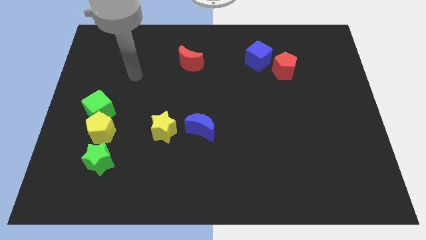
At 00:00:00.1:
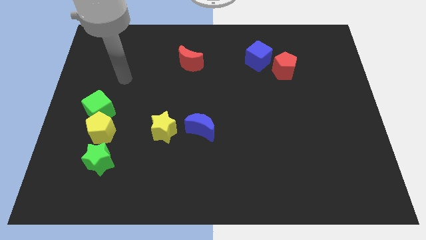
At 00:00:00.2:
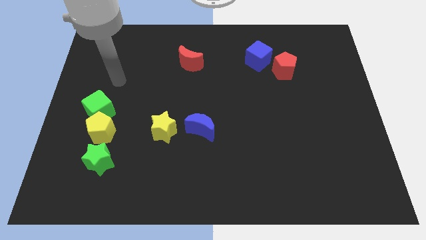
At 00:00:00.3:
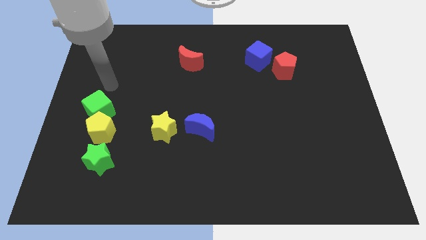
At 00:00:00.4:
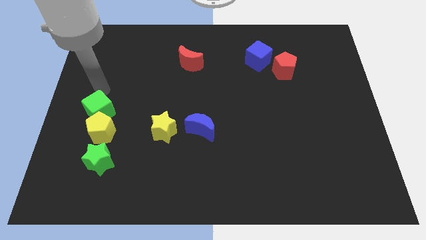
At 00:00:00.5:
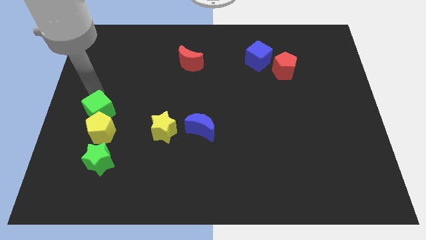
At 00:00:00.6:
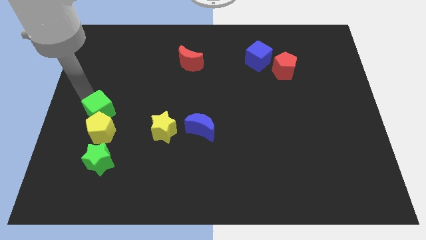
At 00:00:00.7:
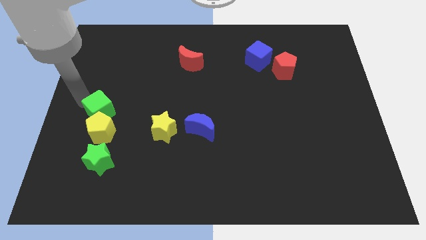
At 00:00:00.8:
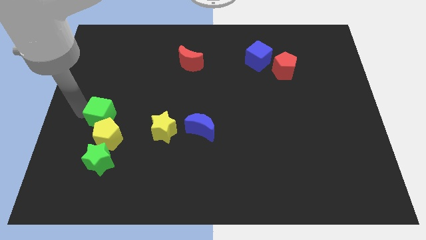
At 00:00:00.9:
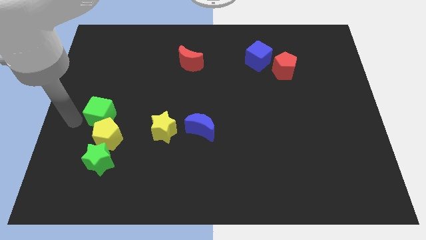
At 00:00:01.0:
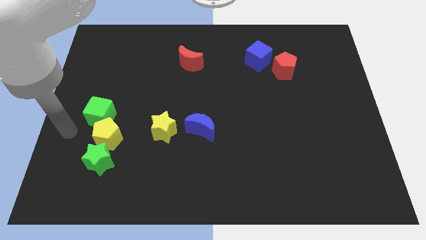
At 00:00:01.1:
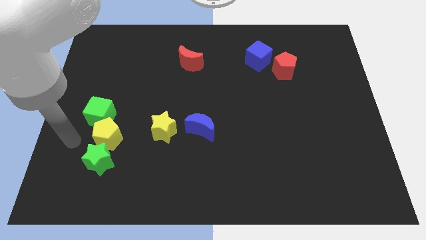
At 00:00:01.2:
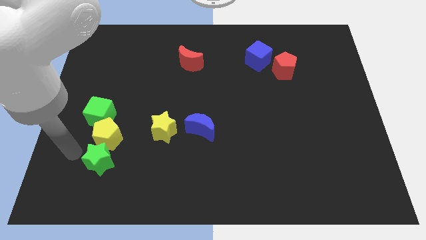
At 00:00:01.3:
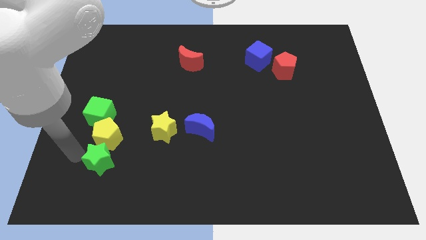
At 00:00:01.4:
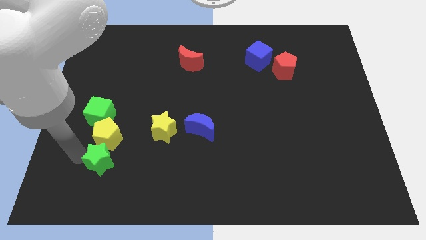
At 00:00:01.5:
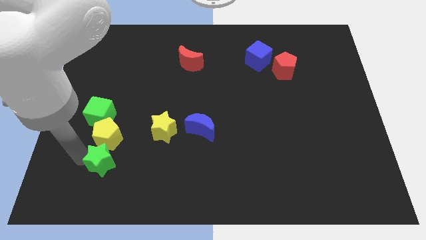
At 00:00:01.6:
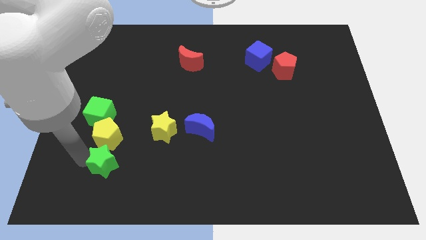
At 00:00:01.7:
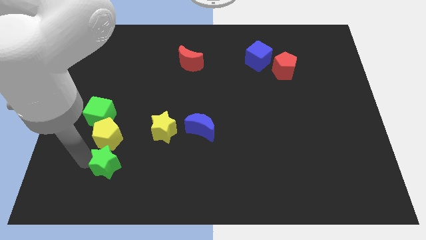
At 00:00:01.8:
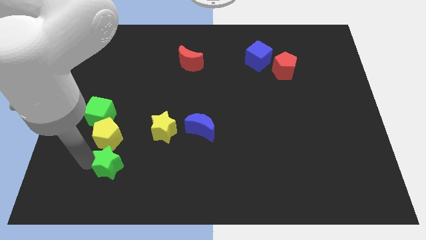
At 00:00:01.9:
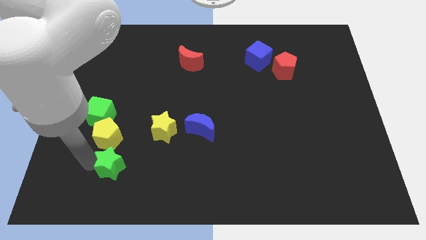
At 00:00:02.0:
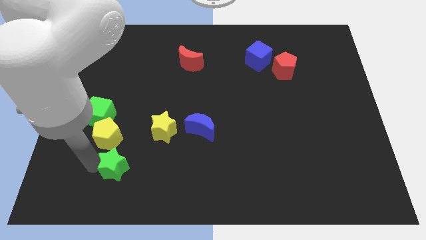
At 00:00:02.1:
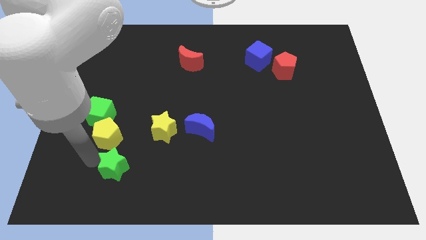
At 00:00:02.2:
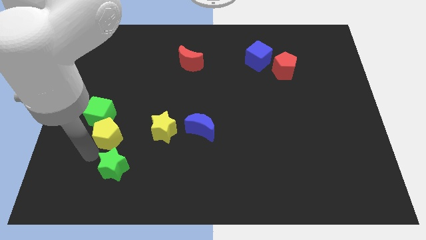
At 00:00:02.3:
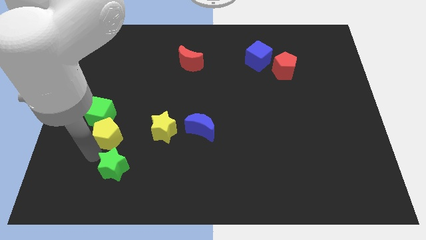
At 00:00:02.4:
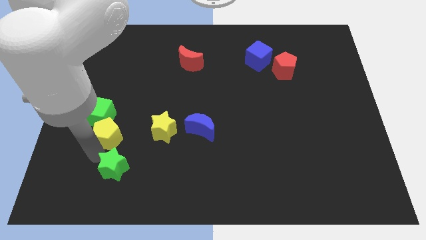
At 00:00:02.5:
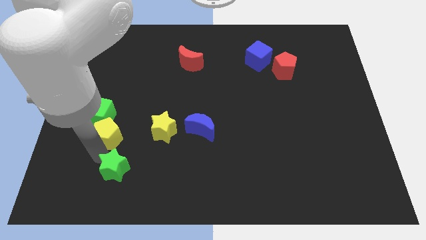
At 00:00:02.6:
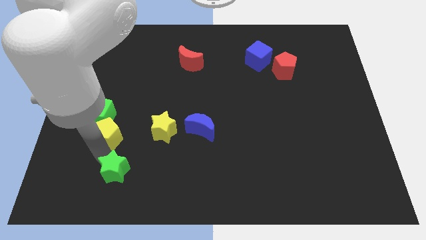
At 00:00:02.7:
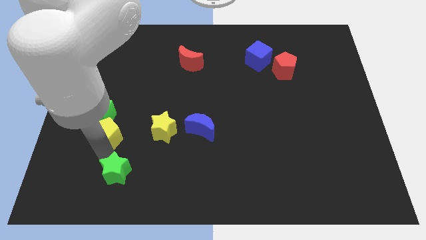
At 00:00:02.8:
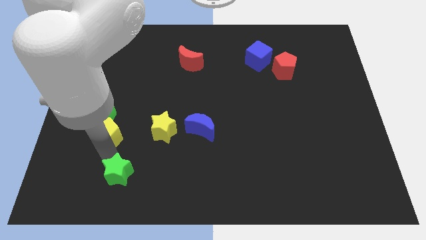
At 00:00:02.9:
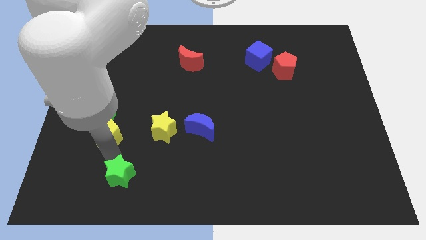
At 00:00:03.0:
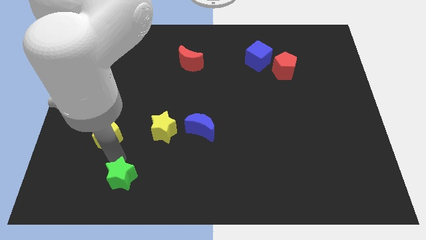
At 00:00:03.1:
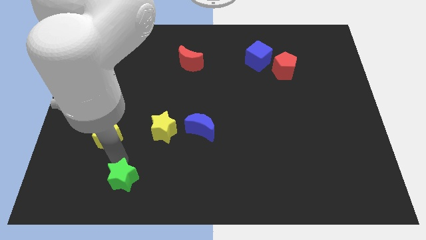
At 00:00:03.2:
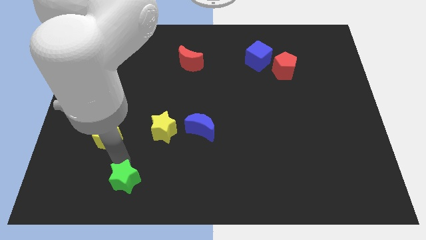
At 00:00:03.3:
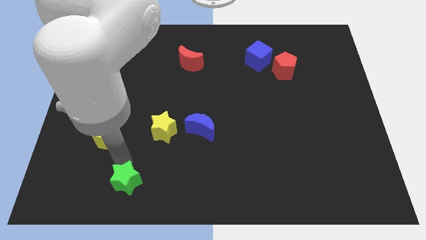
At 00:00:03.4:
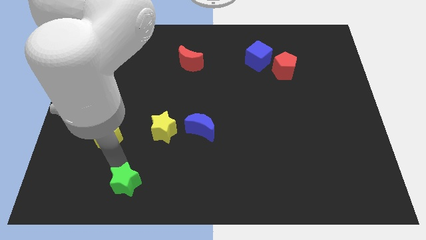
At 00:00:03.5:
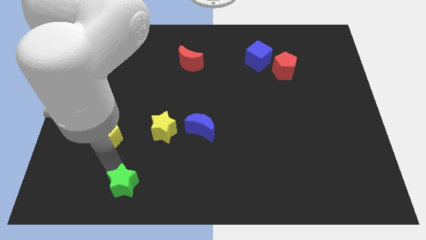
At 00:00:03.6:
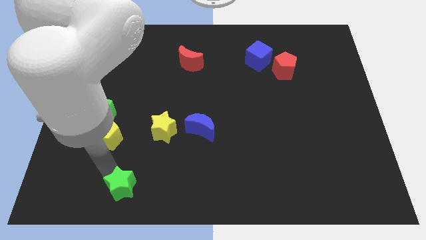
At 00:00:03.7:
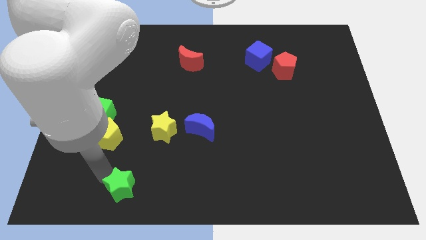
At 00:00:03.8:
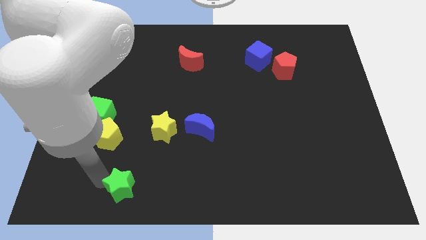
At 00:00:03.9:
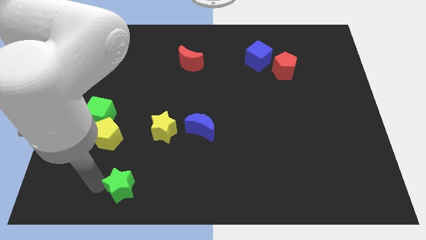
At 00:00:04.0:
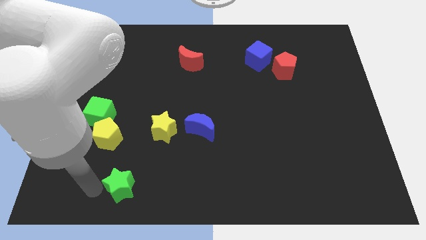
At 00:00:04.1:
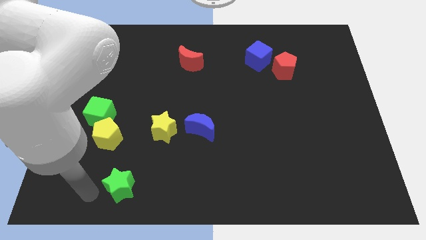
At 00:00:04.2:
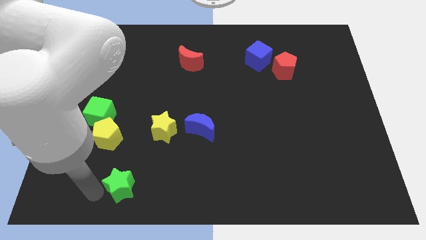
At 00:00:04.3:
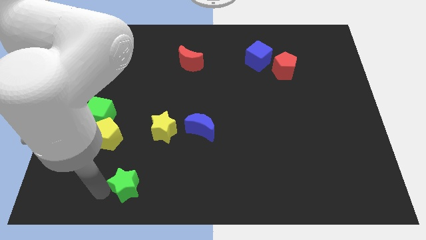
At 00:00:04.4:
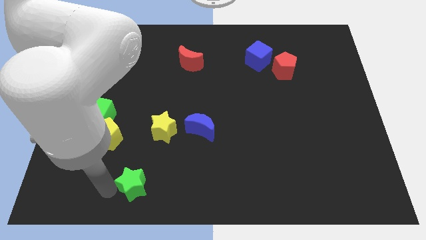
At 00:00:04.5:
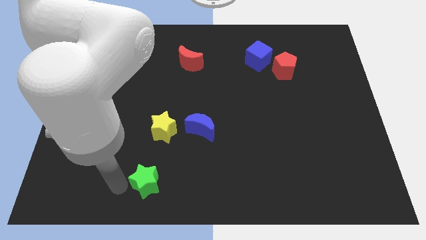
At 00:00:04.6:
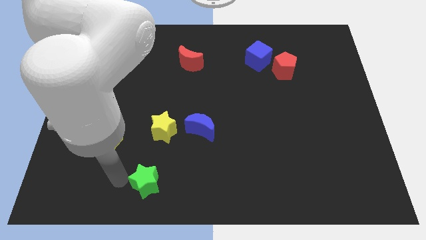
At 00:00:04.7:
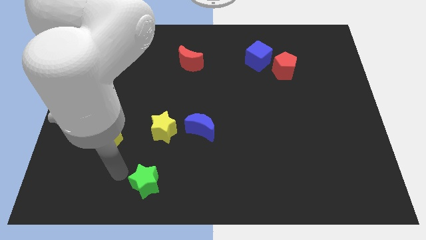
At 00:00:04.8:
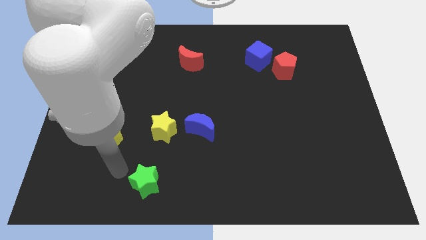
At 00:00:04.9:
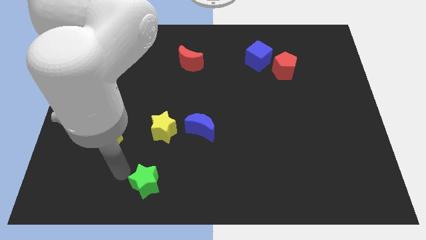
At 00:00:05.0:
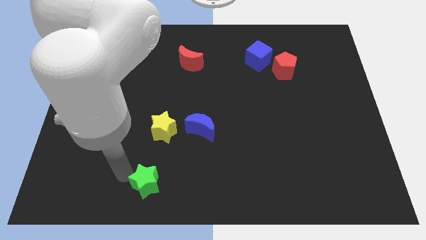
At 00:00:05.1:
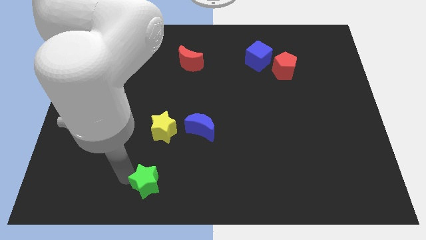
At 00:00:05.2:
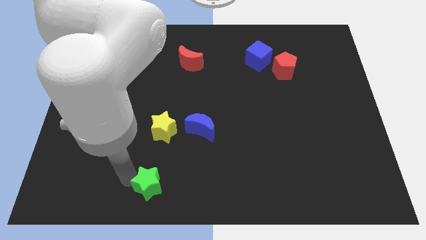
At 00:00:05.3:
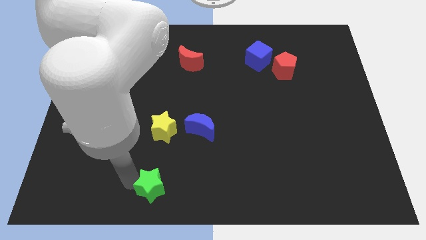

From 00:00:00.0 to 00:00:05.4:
push the green star to the bottom side

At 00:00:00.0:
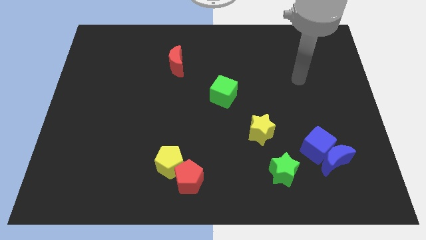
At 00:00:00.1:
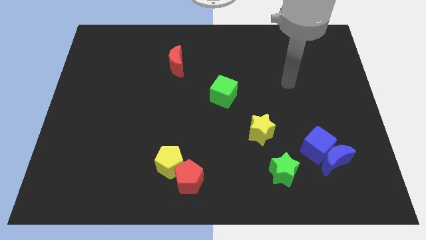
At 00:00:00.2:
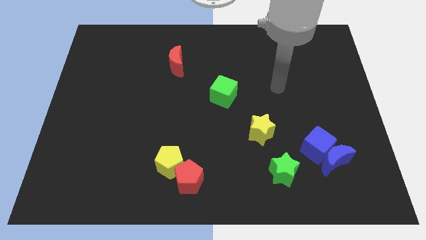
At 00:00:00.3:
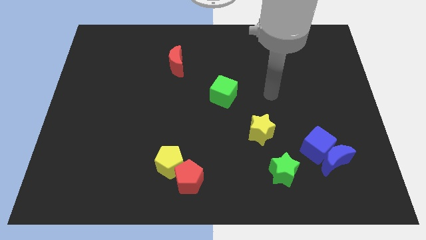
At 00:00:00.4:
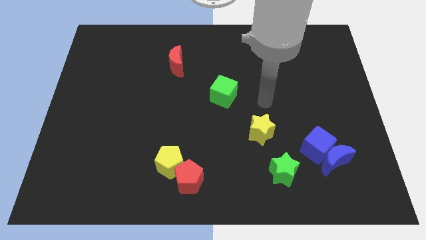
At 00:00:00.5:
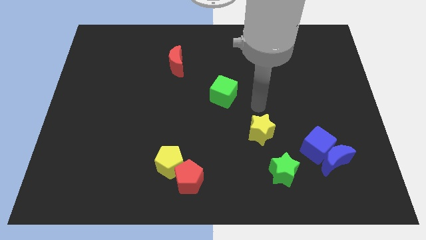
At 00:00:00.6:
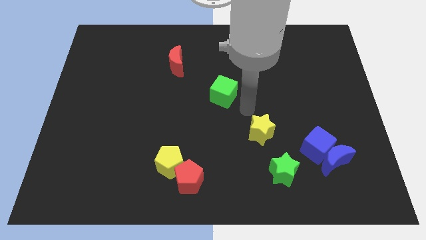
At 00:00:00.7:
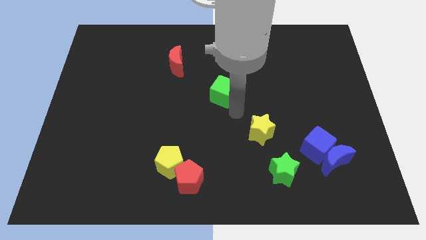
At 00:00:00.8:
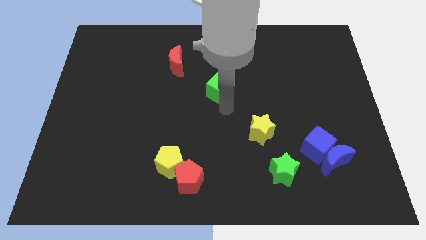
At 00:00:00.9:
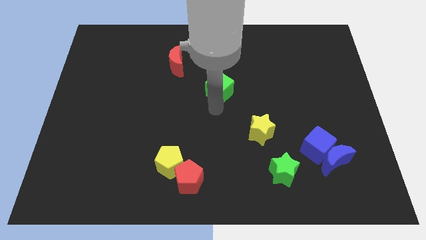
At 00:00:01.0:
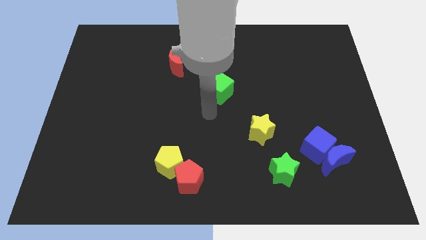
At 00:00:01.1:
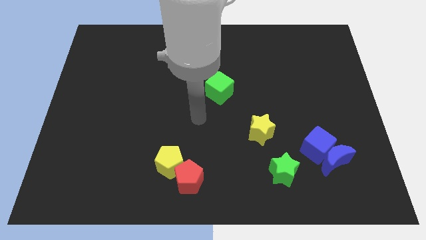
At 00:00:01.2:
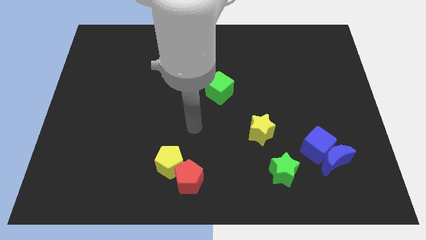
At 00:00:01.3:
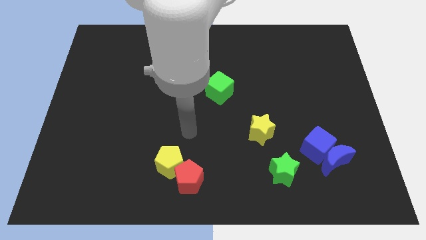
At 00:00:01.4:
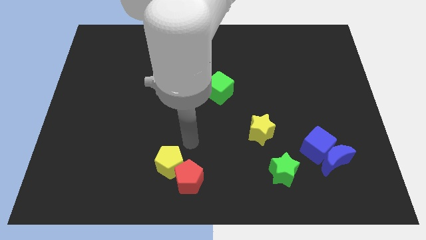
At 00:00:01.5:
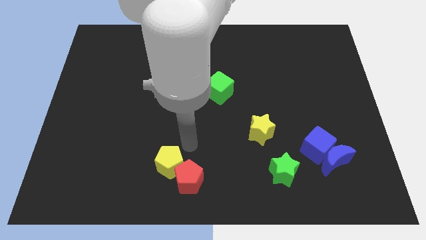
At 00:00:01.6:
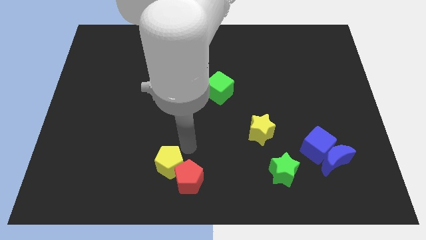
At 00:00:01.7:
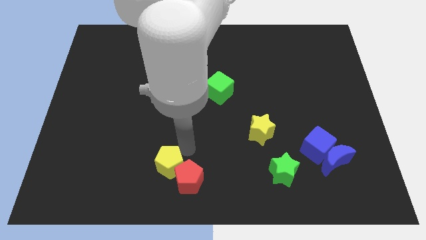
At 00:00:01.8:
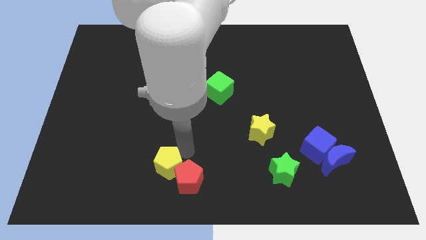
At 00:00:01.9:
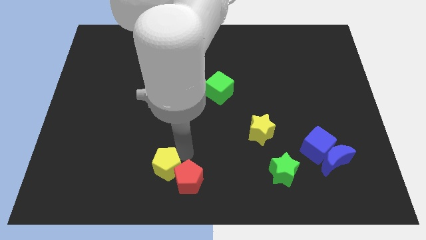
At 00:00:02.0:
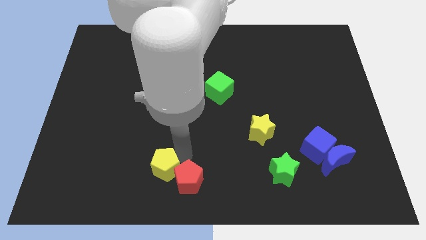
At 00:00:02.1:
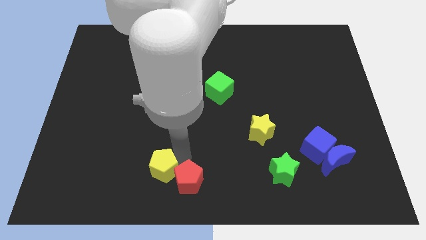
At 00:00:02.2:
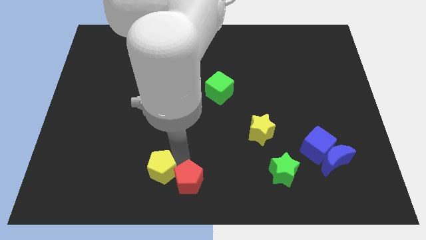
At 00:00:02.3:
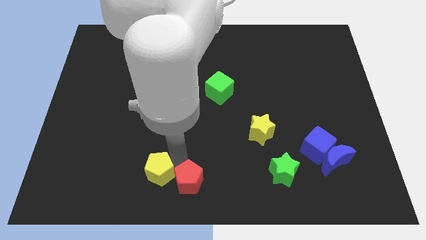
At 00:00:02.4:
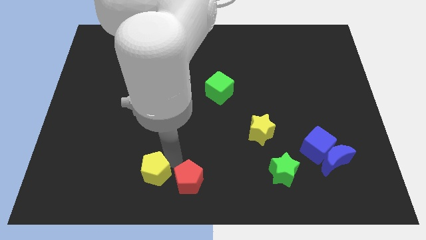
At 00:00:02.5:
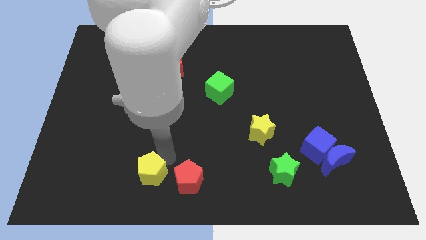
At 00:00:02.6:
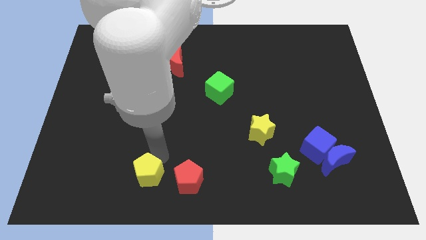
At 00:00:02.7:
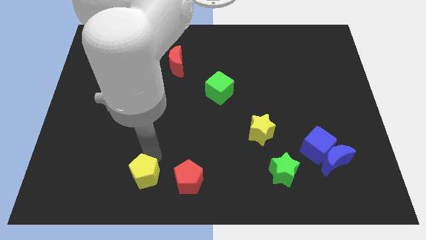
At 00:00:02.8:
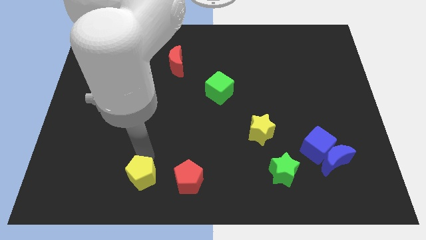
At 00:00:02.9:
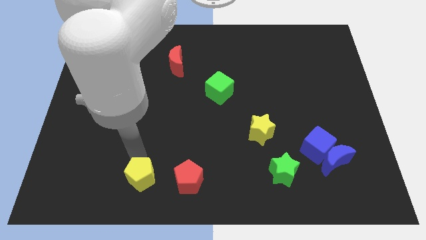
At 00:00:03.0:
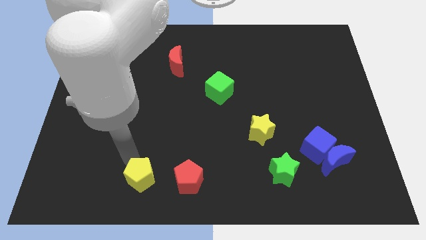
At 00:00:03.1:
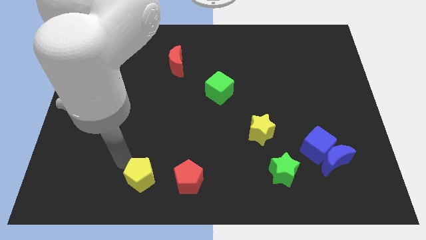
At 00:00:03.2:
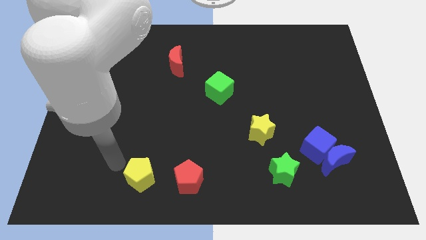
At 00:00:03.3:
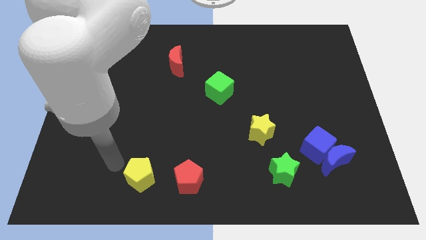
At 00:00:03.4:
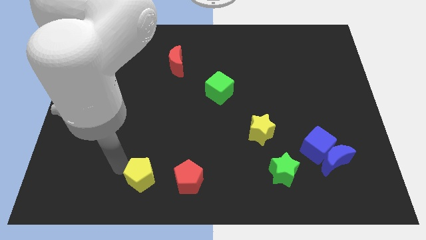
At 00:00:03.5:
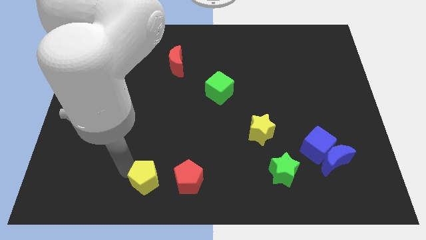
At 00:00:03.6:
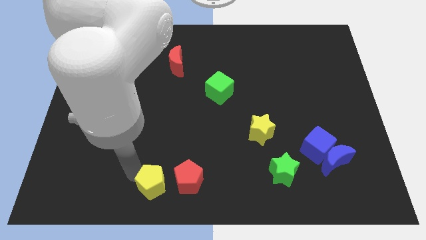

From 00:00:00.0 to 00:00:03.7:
push the yellow pentagon to the bottom side
